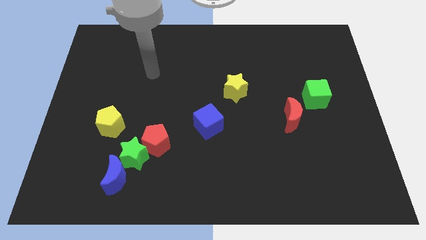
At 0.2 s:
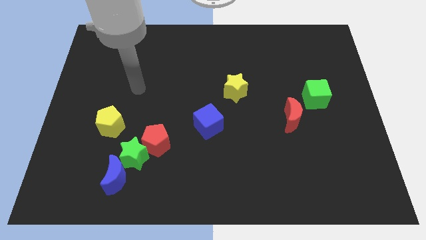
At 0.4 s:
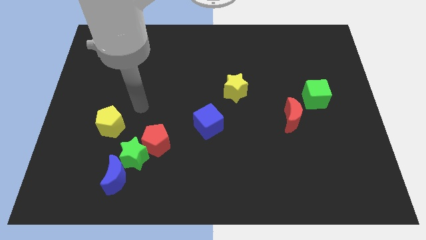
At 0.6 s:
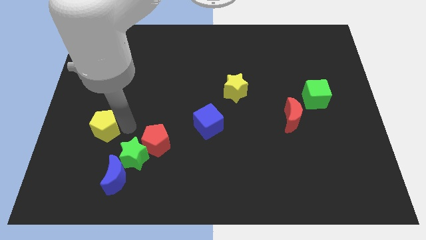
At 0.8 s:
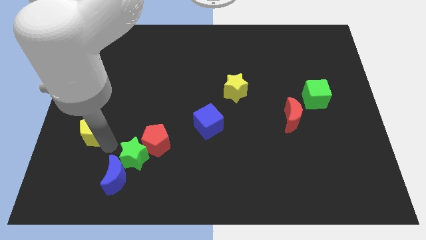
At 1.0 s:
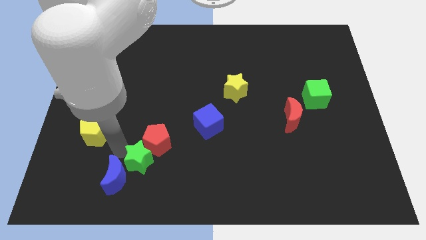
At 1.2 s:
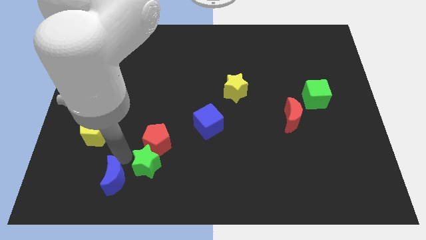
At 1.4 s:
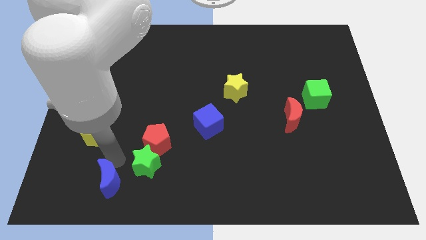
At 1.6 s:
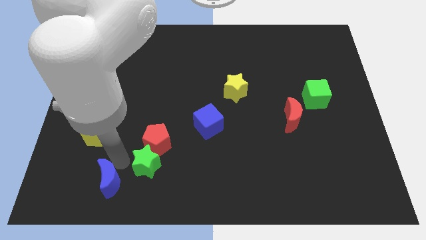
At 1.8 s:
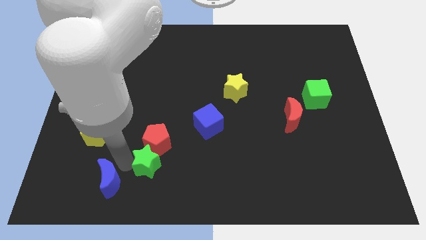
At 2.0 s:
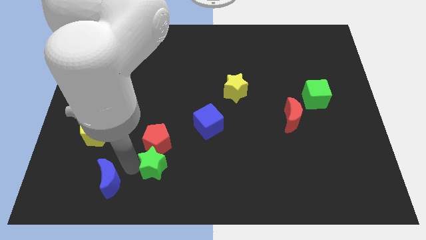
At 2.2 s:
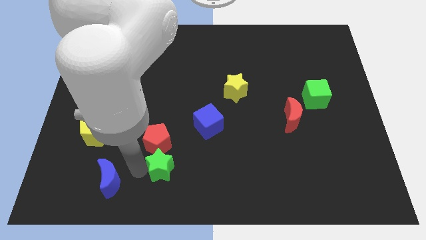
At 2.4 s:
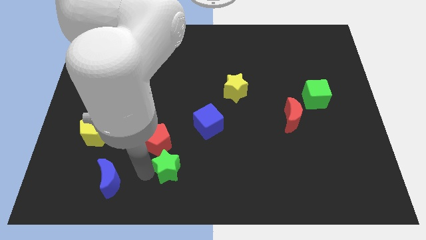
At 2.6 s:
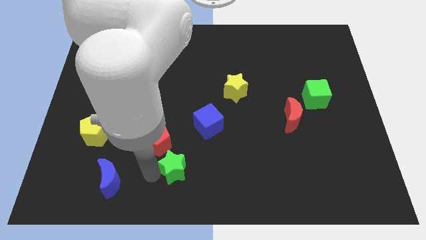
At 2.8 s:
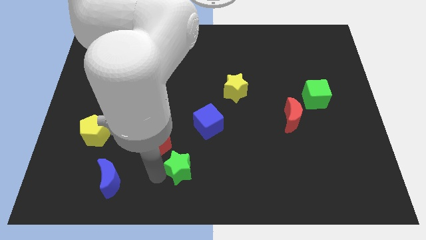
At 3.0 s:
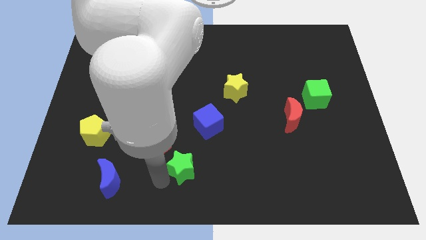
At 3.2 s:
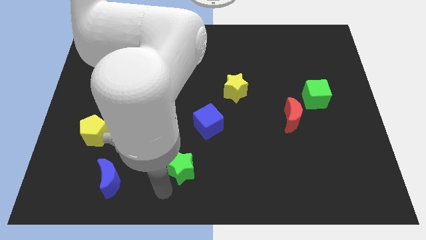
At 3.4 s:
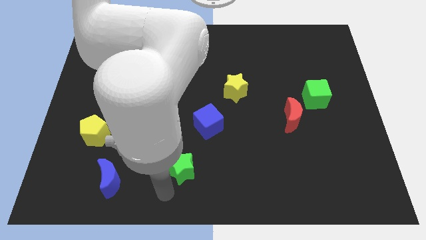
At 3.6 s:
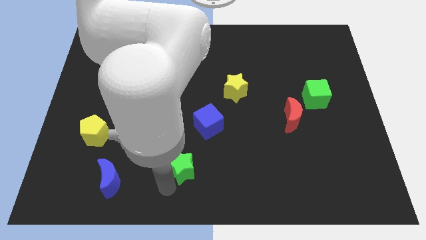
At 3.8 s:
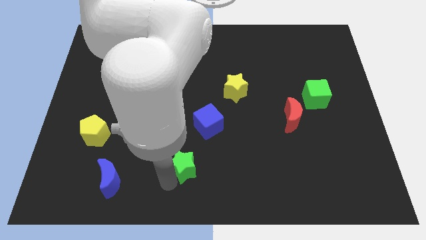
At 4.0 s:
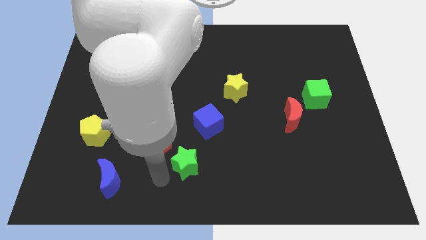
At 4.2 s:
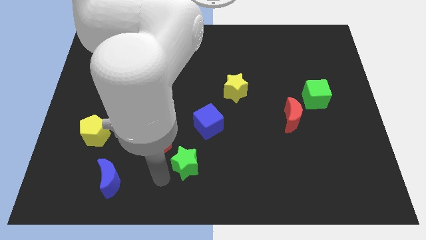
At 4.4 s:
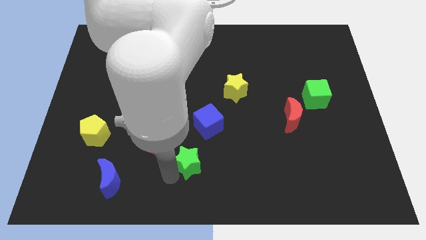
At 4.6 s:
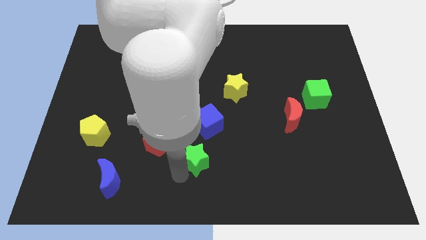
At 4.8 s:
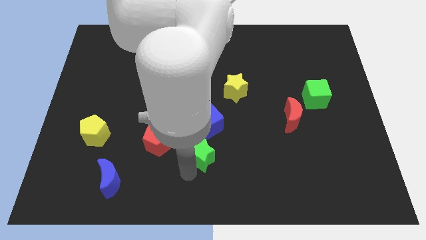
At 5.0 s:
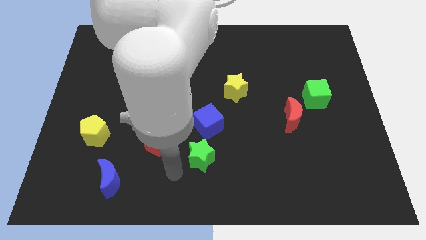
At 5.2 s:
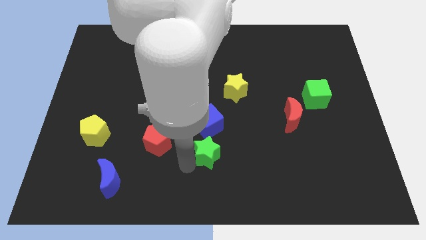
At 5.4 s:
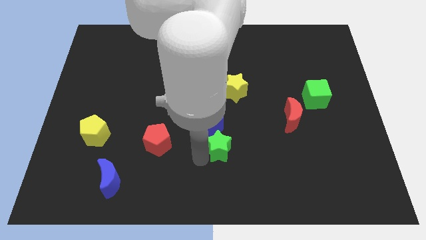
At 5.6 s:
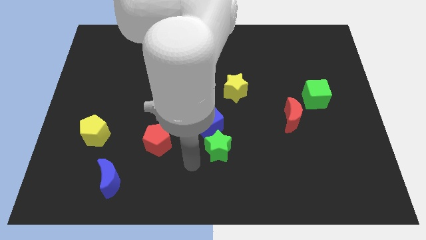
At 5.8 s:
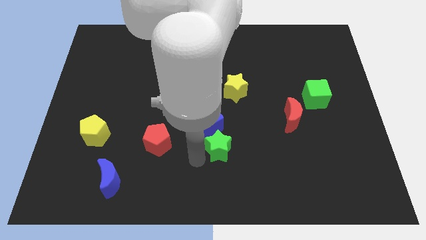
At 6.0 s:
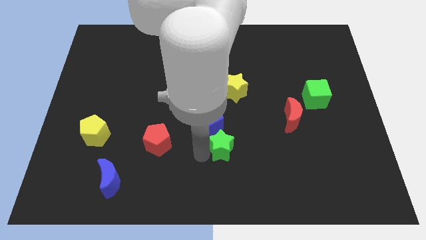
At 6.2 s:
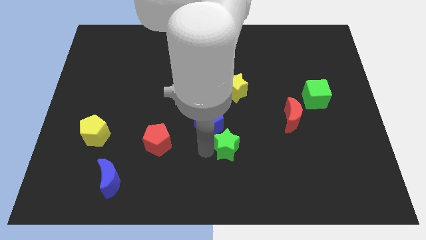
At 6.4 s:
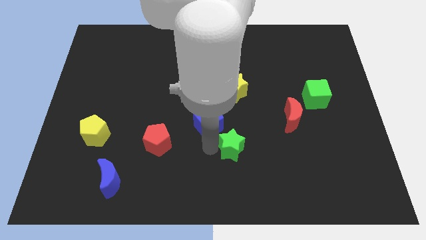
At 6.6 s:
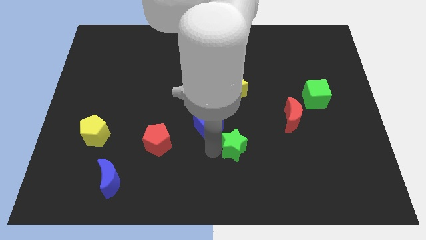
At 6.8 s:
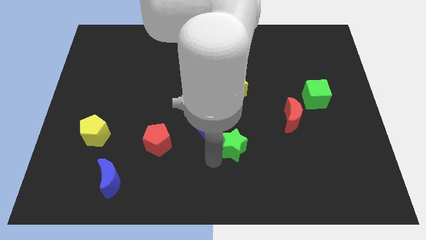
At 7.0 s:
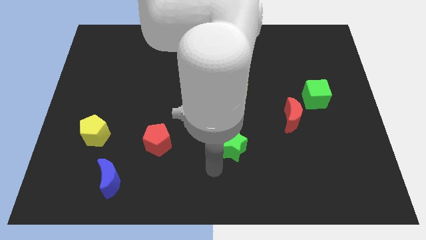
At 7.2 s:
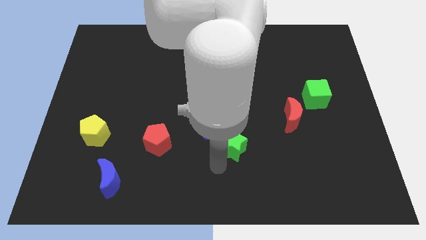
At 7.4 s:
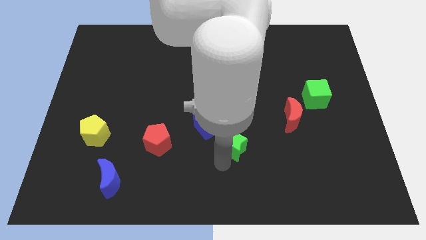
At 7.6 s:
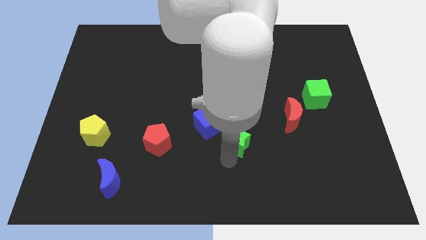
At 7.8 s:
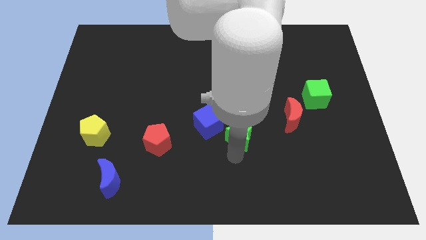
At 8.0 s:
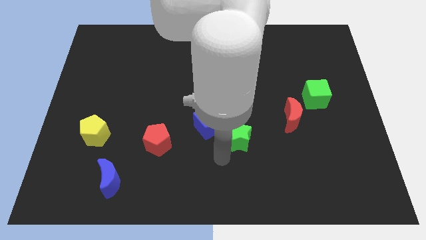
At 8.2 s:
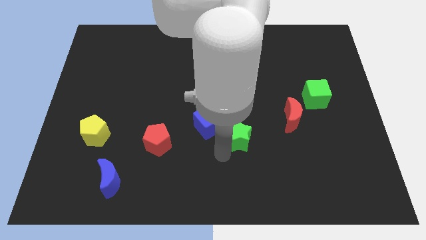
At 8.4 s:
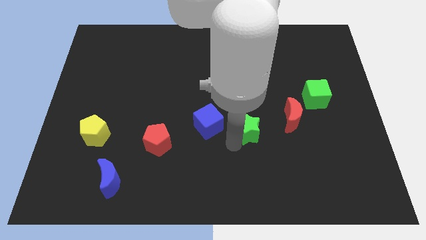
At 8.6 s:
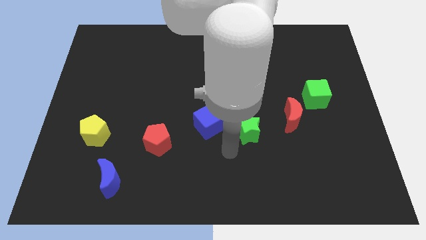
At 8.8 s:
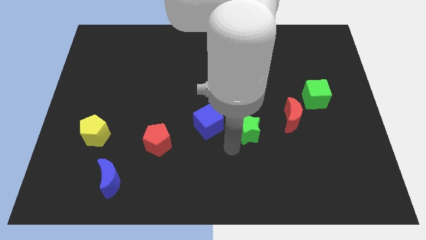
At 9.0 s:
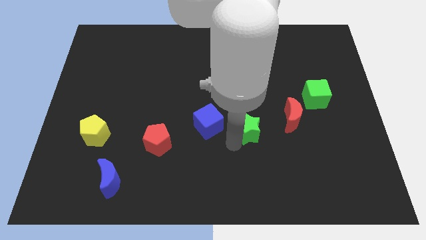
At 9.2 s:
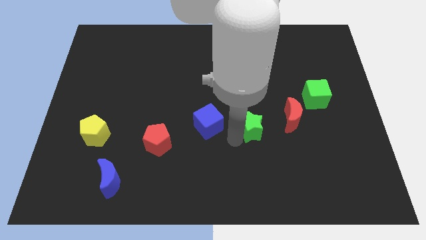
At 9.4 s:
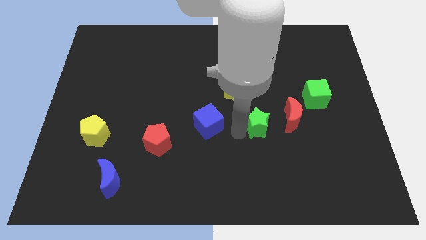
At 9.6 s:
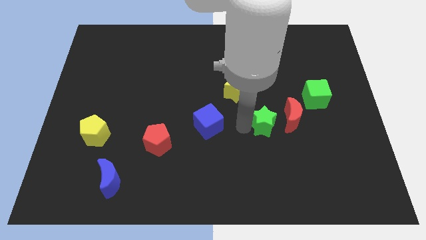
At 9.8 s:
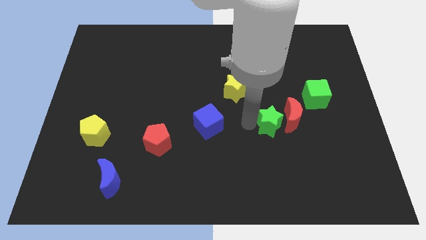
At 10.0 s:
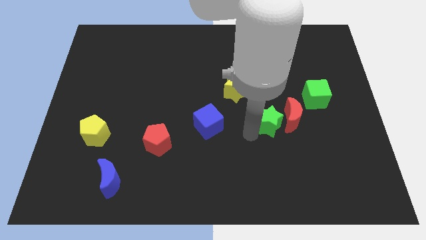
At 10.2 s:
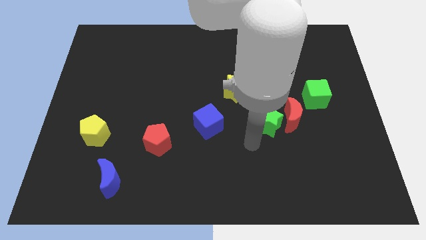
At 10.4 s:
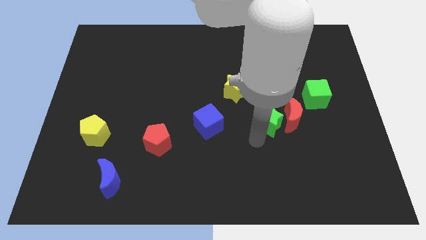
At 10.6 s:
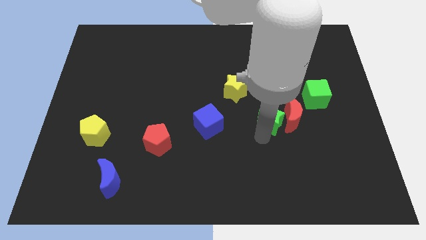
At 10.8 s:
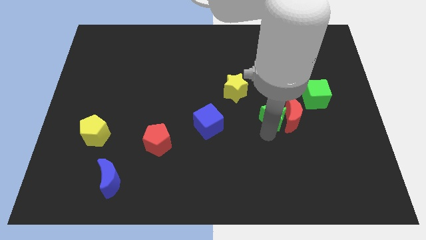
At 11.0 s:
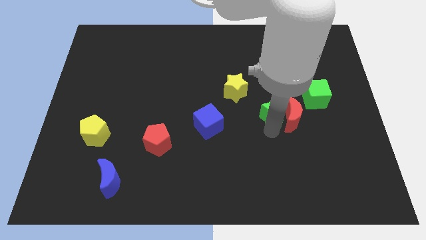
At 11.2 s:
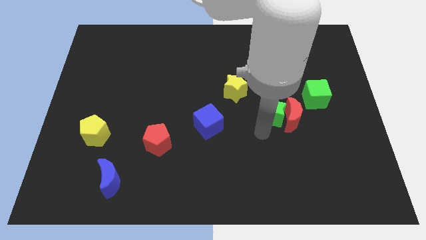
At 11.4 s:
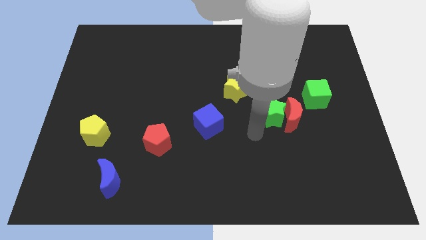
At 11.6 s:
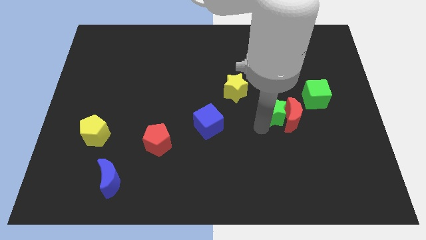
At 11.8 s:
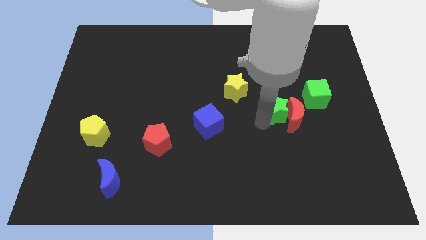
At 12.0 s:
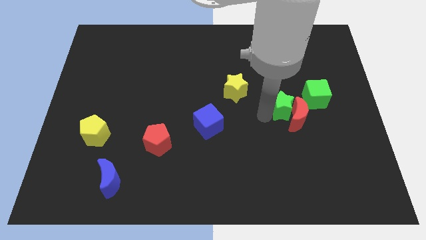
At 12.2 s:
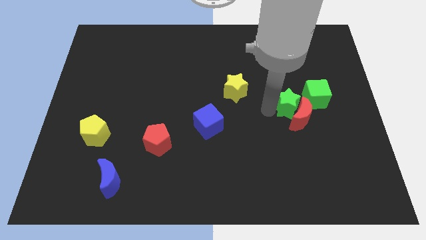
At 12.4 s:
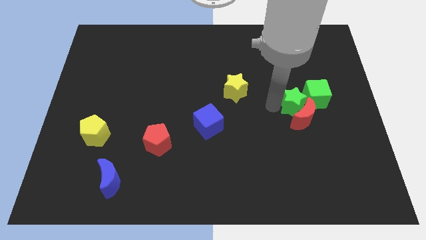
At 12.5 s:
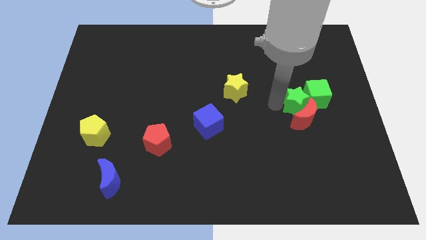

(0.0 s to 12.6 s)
push the green star next to the green cube
